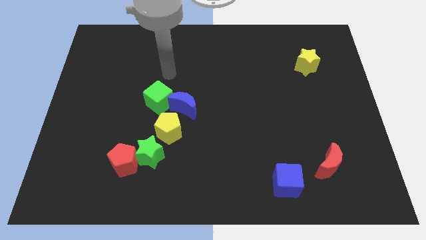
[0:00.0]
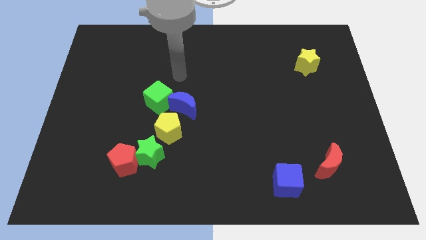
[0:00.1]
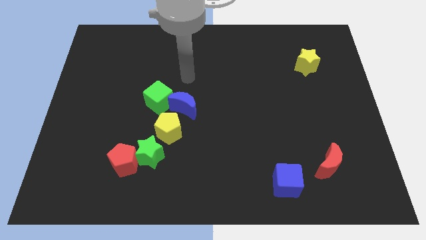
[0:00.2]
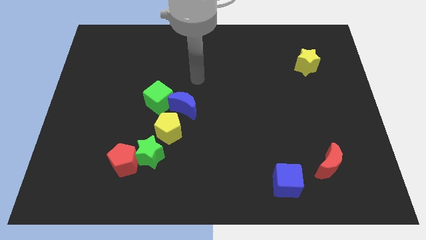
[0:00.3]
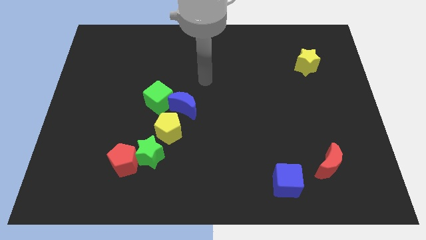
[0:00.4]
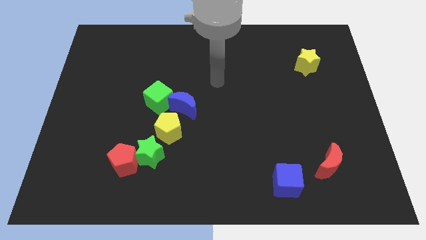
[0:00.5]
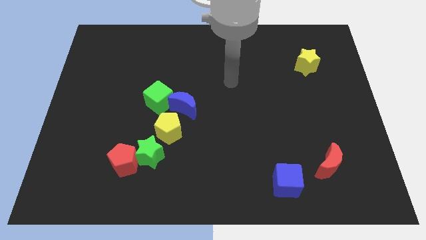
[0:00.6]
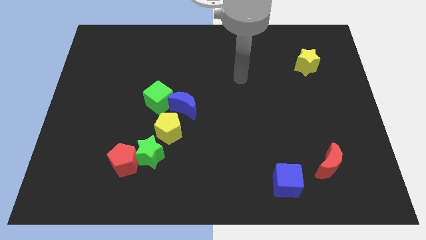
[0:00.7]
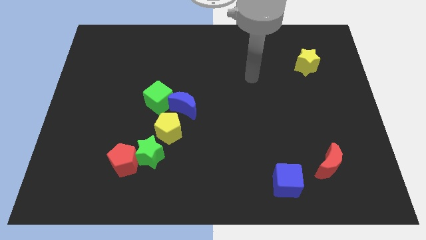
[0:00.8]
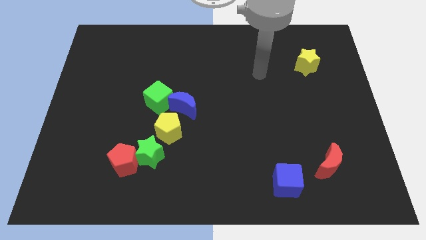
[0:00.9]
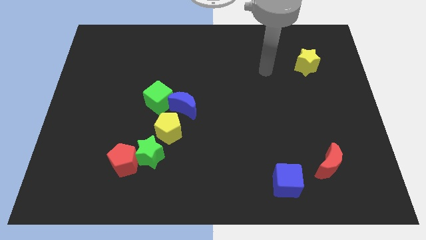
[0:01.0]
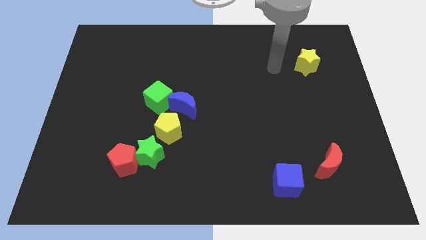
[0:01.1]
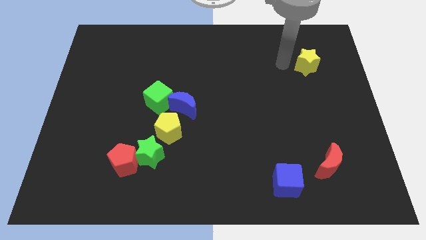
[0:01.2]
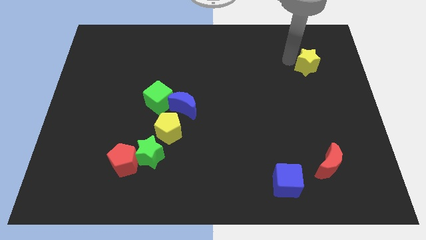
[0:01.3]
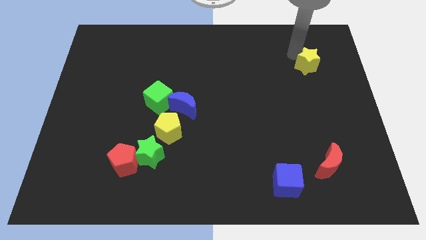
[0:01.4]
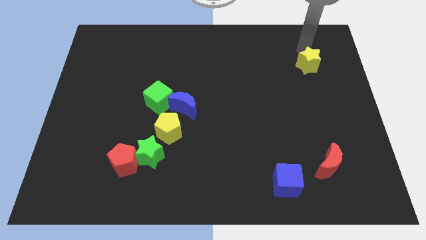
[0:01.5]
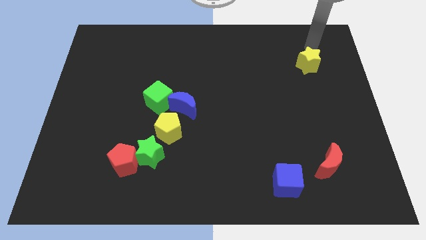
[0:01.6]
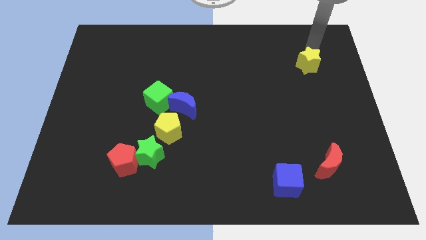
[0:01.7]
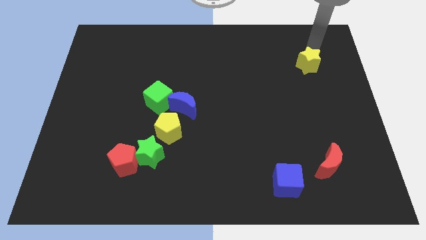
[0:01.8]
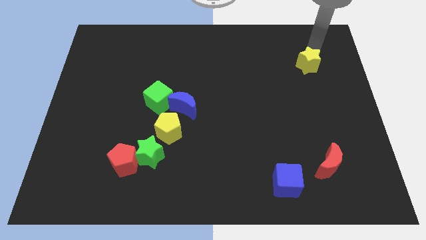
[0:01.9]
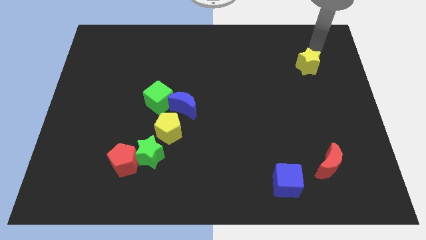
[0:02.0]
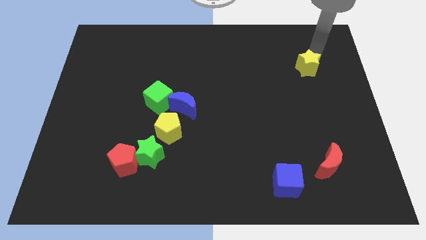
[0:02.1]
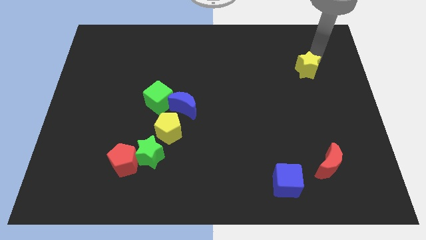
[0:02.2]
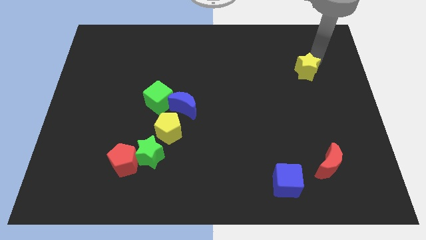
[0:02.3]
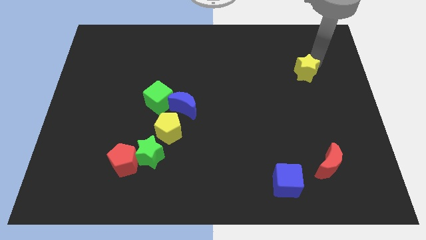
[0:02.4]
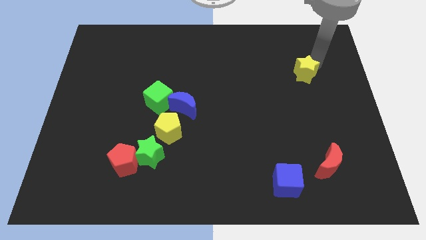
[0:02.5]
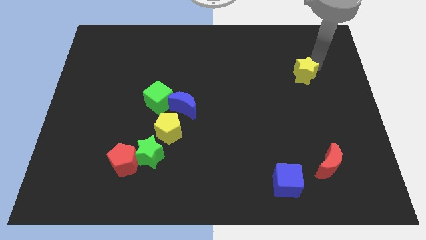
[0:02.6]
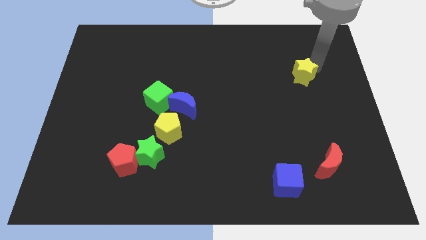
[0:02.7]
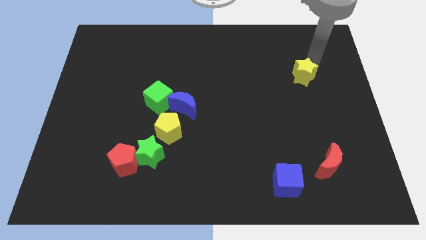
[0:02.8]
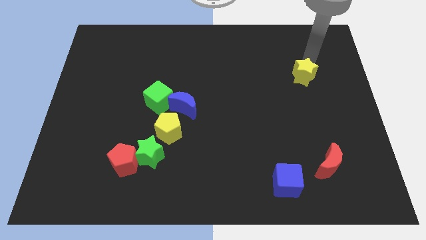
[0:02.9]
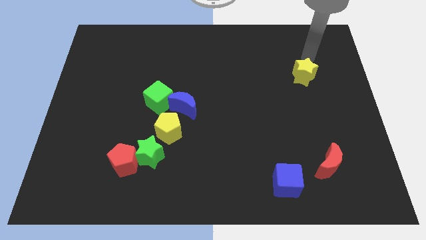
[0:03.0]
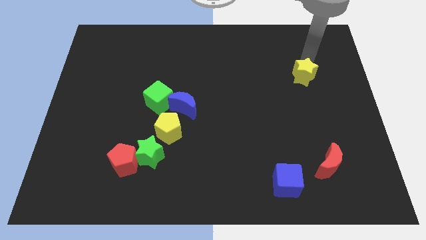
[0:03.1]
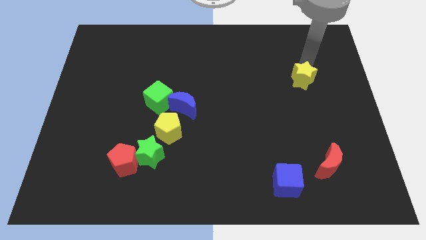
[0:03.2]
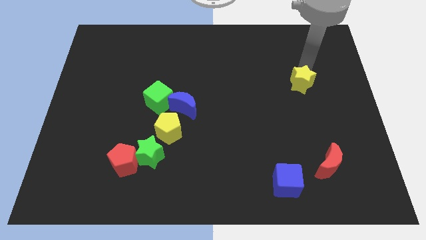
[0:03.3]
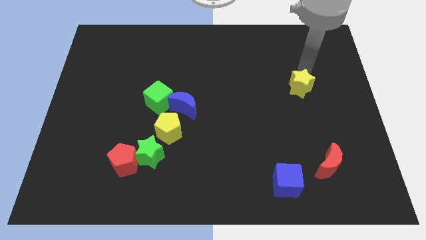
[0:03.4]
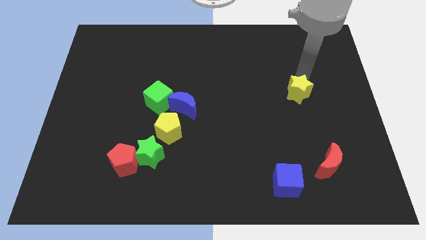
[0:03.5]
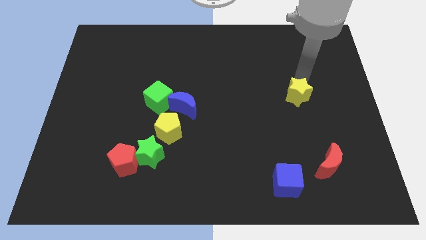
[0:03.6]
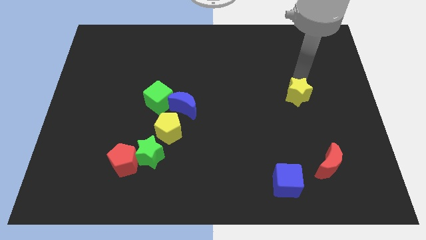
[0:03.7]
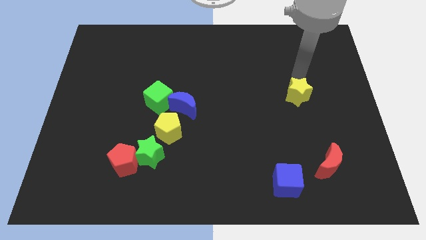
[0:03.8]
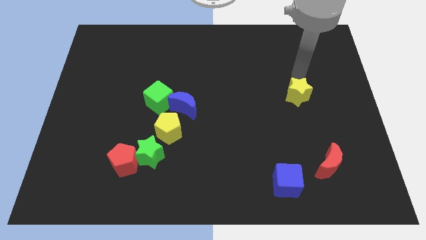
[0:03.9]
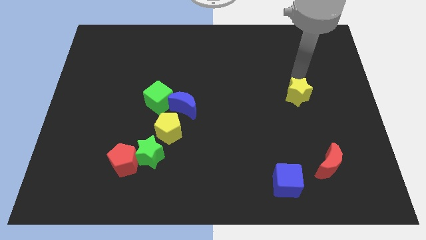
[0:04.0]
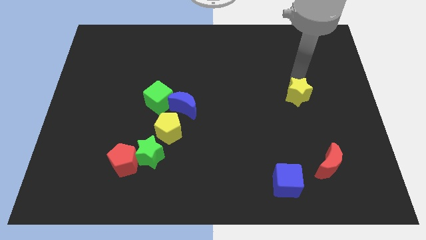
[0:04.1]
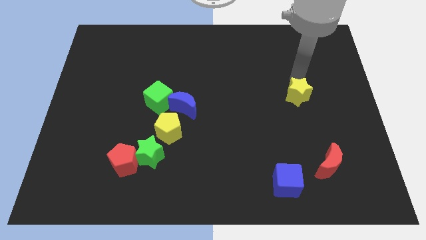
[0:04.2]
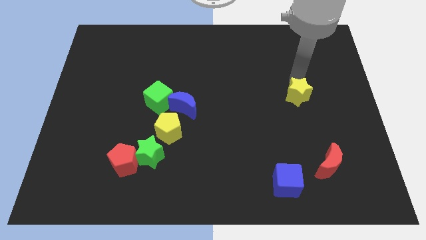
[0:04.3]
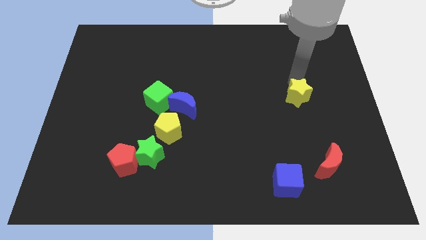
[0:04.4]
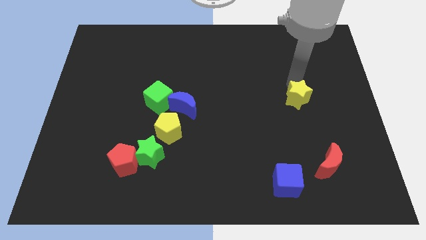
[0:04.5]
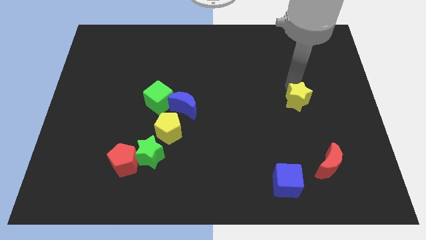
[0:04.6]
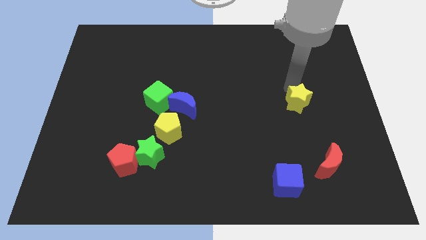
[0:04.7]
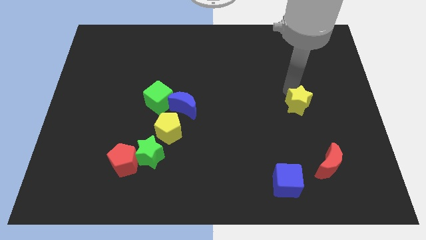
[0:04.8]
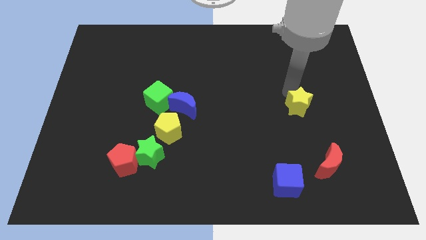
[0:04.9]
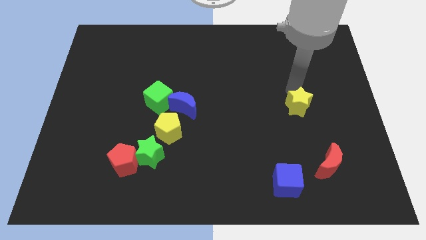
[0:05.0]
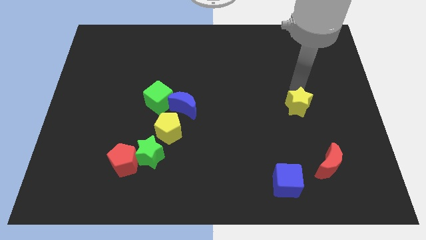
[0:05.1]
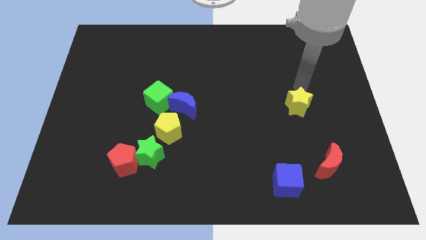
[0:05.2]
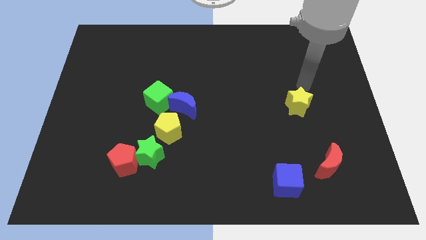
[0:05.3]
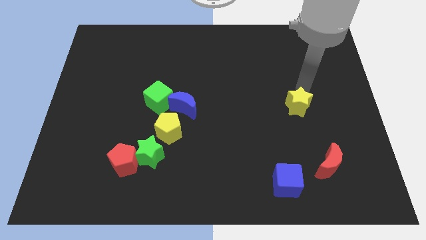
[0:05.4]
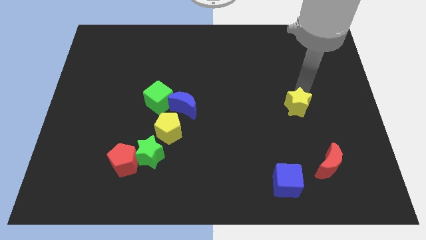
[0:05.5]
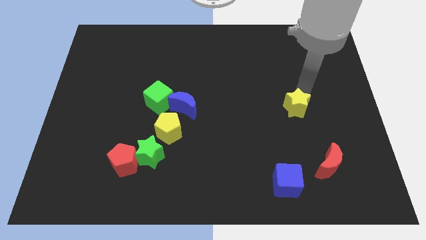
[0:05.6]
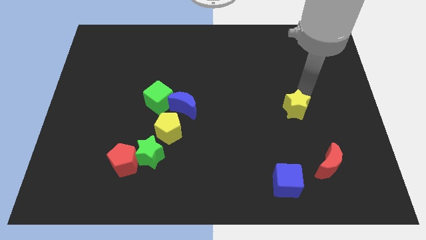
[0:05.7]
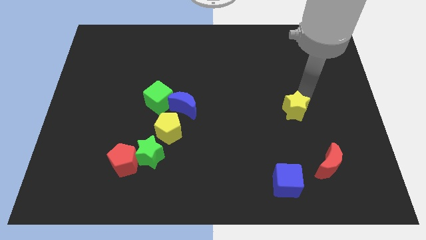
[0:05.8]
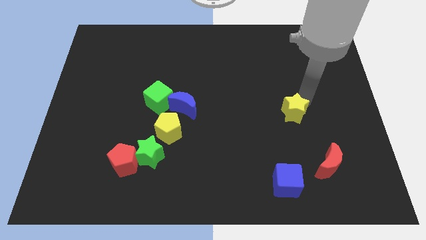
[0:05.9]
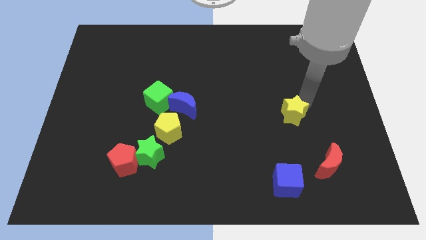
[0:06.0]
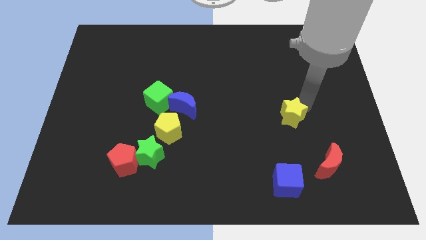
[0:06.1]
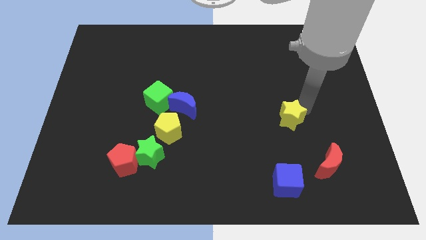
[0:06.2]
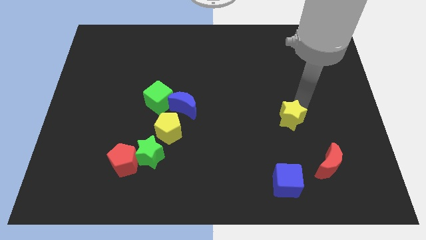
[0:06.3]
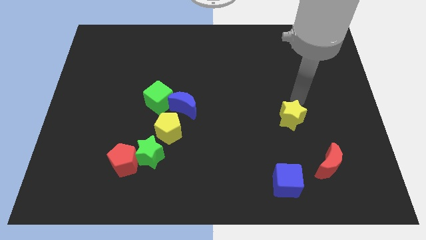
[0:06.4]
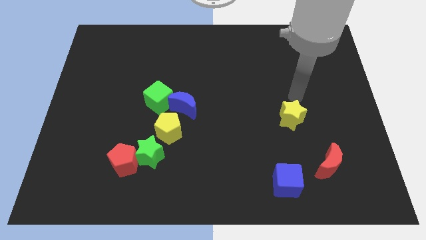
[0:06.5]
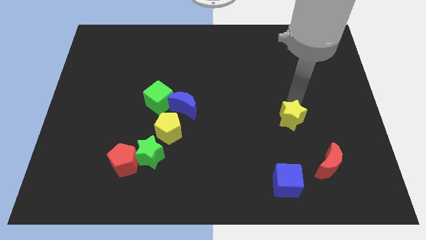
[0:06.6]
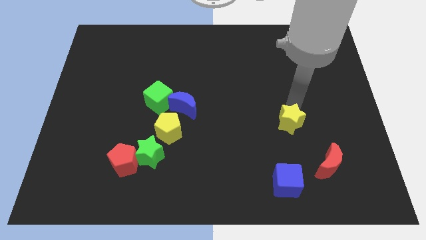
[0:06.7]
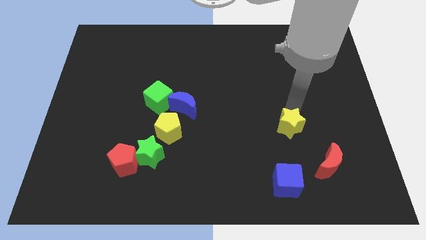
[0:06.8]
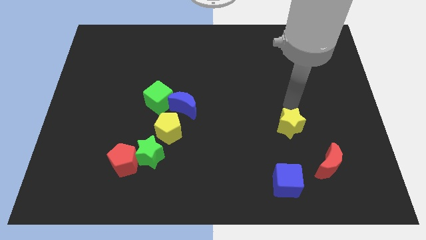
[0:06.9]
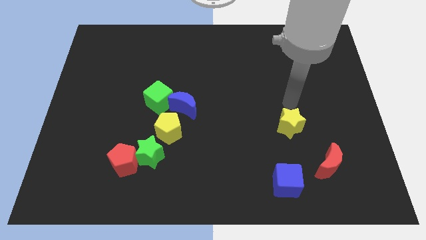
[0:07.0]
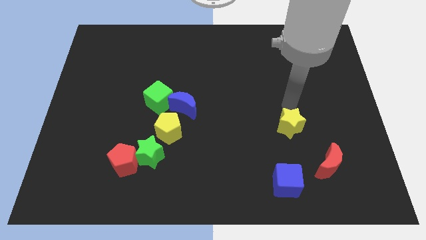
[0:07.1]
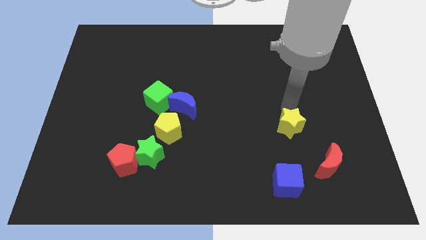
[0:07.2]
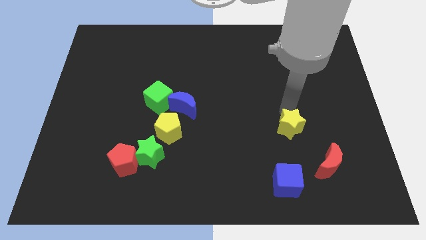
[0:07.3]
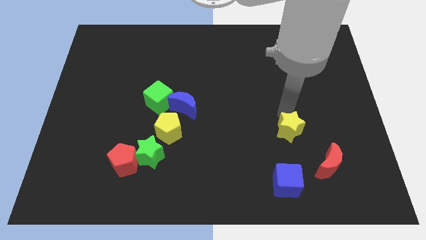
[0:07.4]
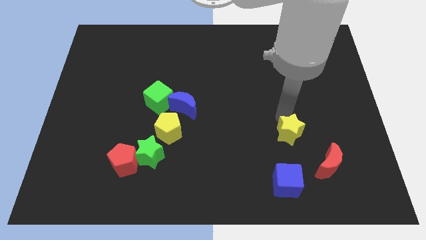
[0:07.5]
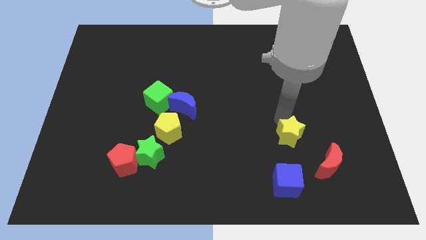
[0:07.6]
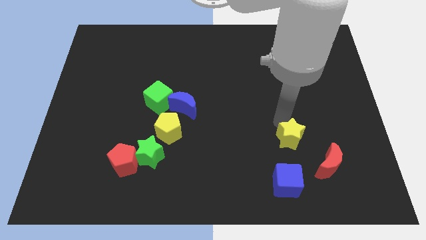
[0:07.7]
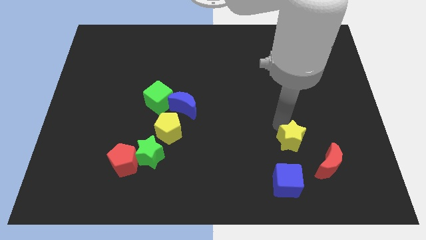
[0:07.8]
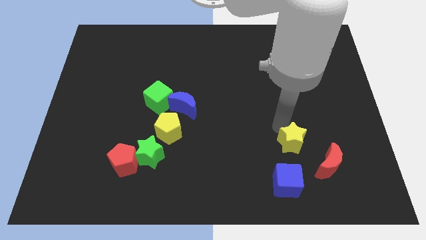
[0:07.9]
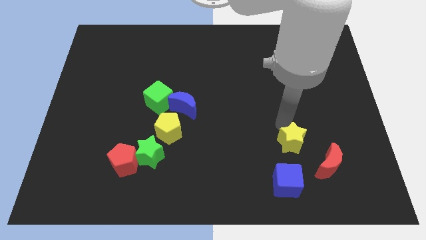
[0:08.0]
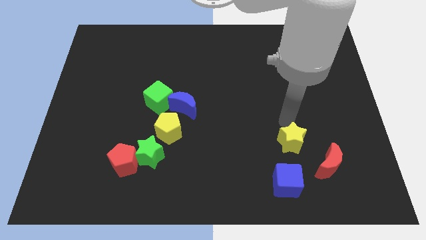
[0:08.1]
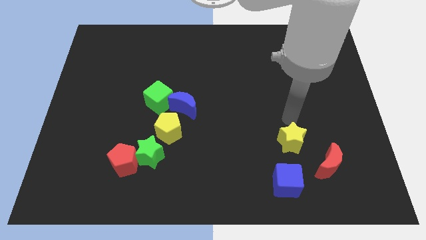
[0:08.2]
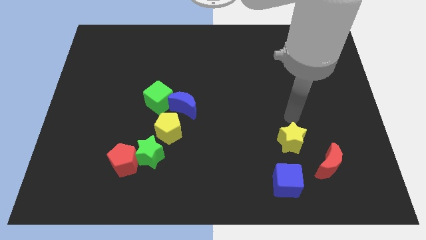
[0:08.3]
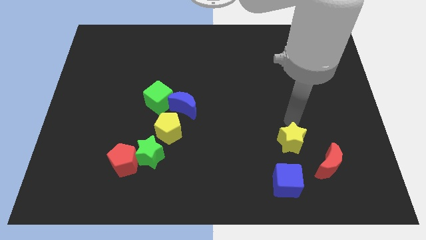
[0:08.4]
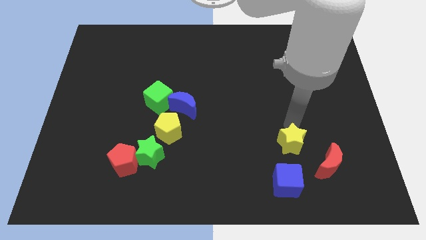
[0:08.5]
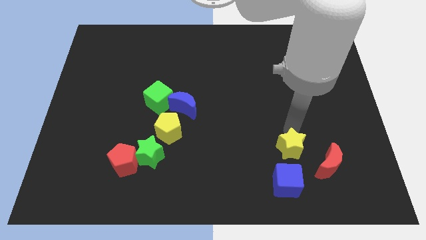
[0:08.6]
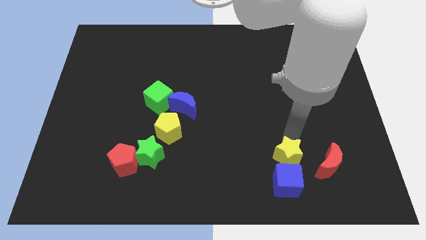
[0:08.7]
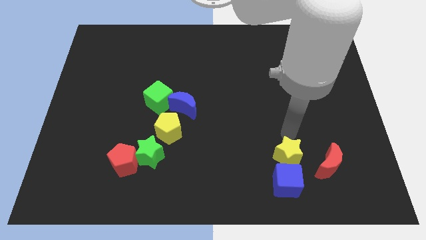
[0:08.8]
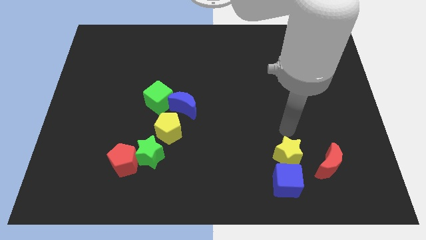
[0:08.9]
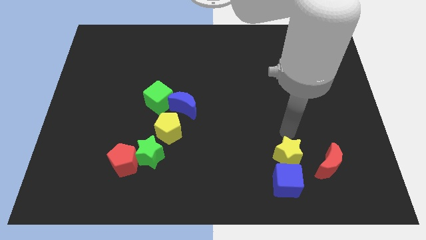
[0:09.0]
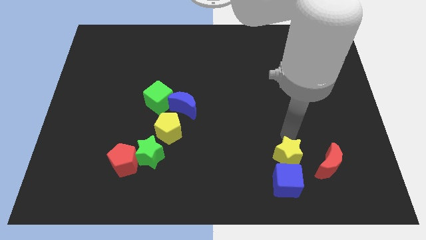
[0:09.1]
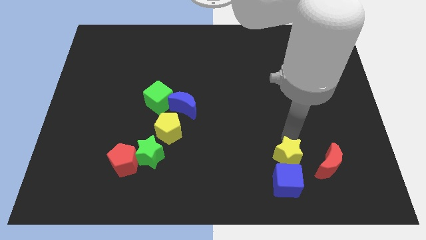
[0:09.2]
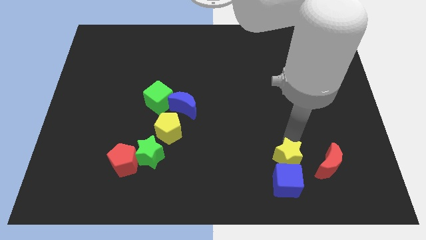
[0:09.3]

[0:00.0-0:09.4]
move the yellow star towards the blue cube
